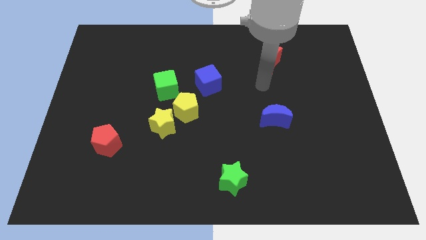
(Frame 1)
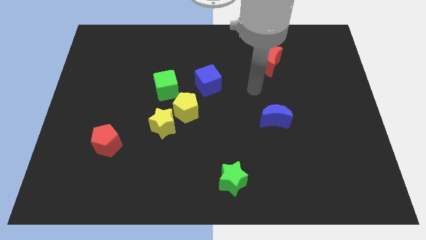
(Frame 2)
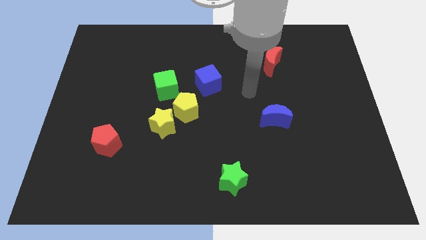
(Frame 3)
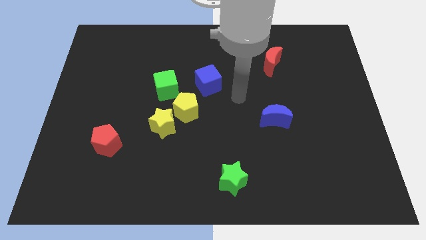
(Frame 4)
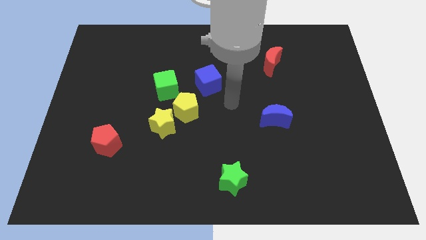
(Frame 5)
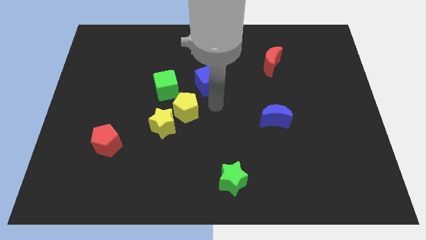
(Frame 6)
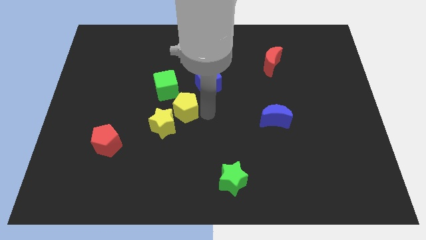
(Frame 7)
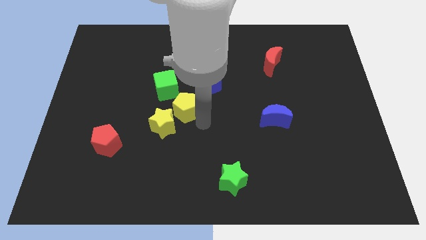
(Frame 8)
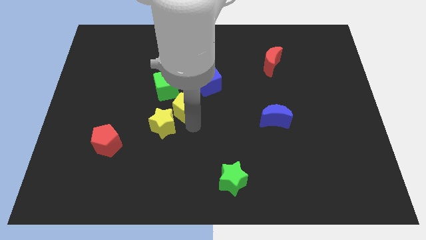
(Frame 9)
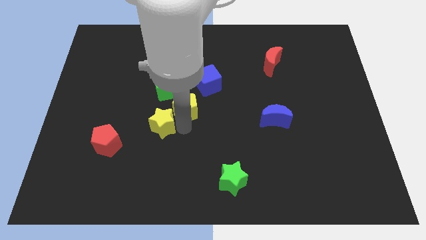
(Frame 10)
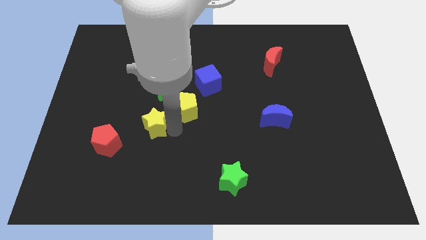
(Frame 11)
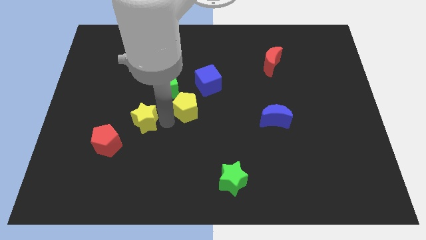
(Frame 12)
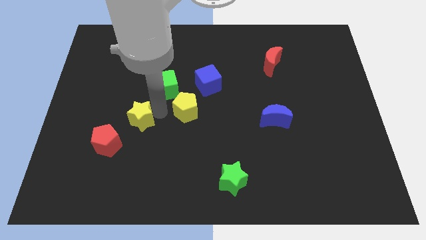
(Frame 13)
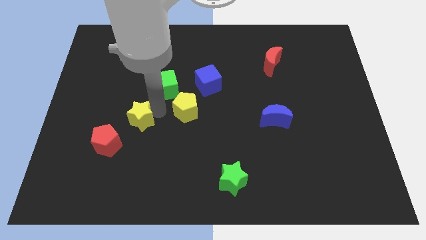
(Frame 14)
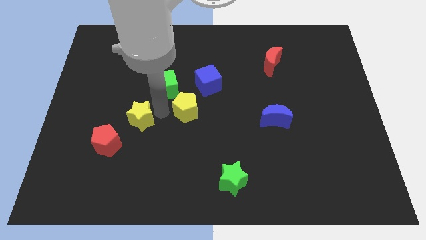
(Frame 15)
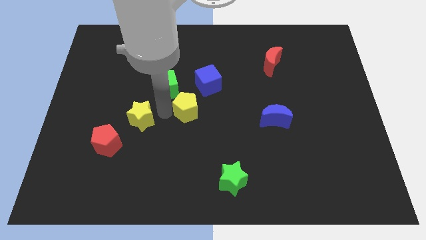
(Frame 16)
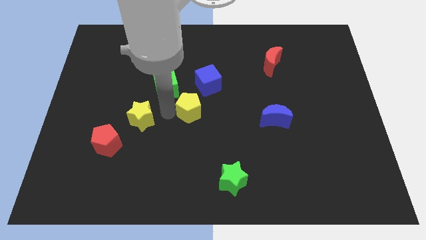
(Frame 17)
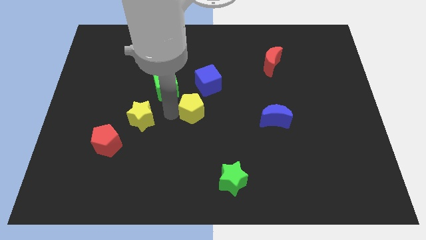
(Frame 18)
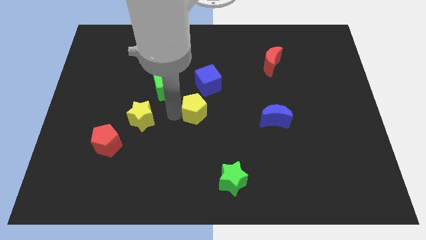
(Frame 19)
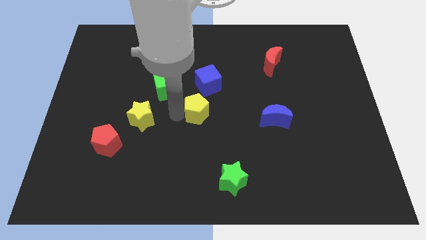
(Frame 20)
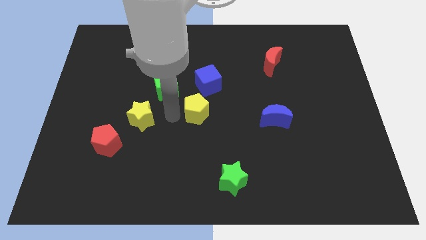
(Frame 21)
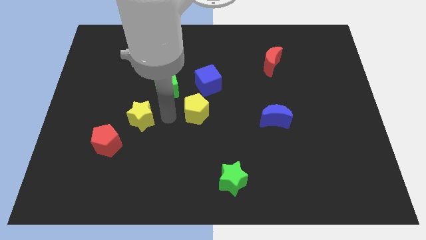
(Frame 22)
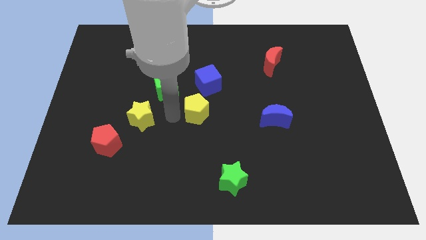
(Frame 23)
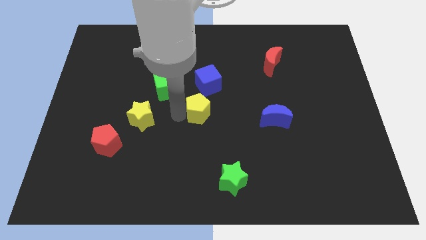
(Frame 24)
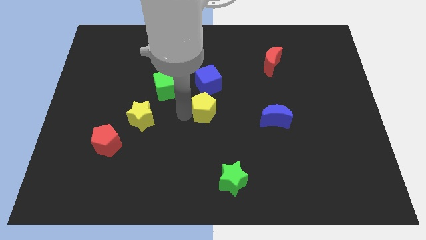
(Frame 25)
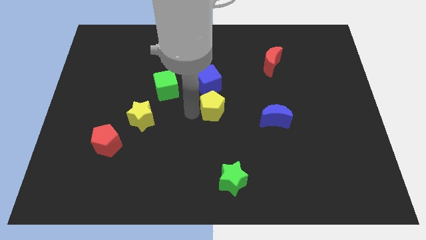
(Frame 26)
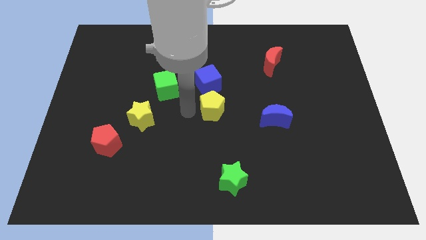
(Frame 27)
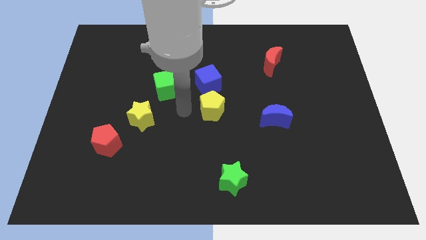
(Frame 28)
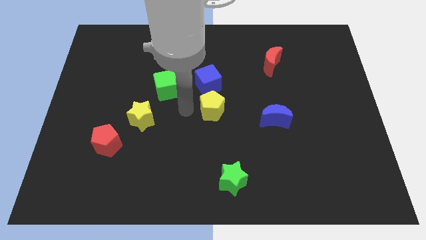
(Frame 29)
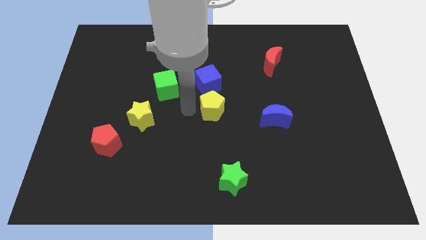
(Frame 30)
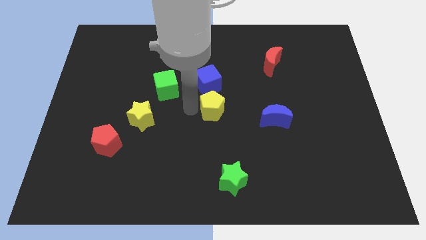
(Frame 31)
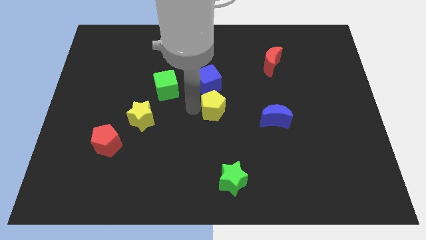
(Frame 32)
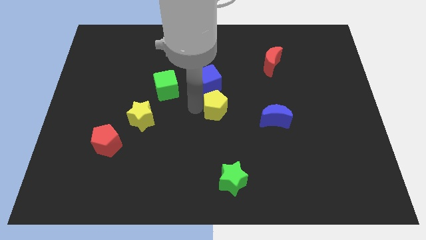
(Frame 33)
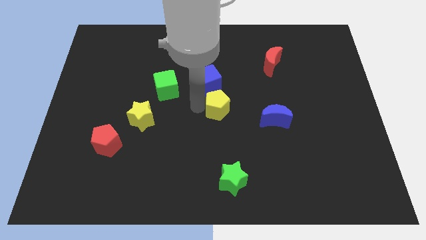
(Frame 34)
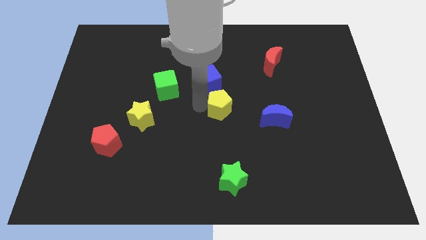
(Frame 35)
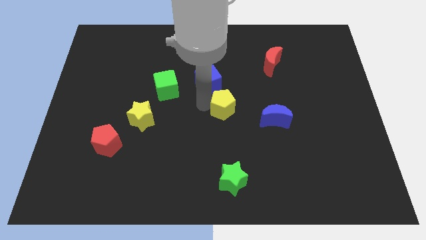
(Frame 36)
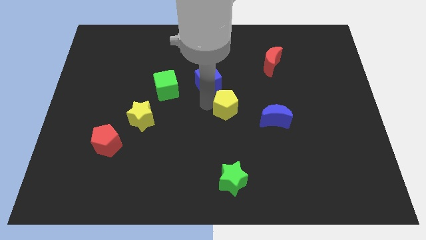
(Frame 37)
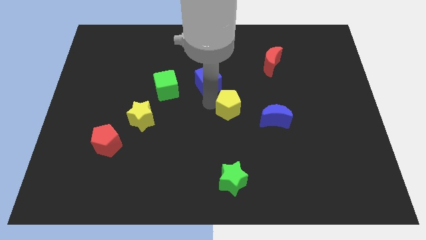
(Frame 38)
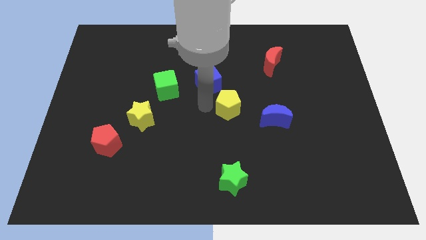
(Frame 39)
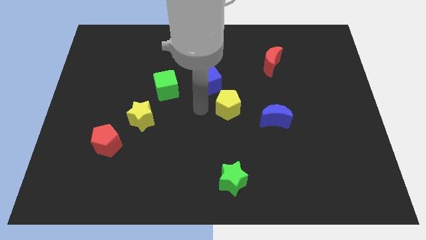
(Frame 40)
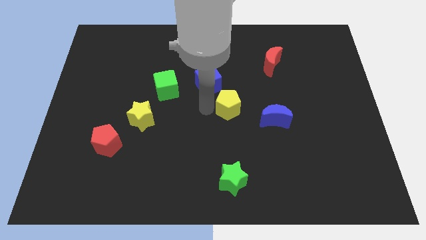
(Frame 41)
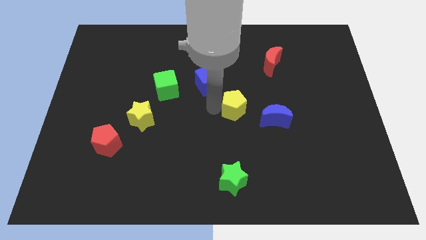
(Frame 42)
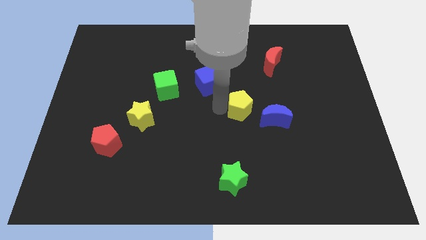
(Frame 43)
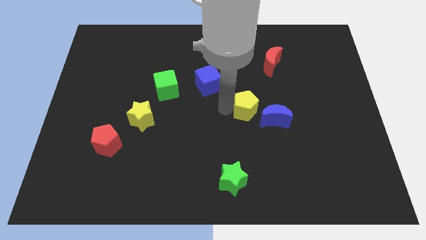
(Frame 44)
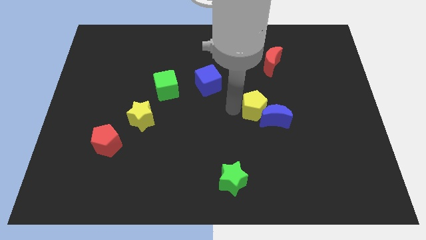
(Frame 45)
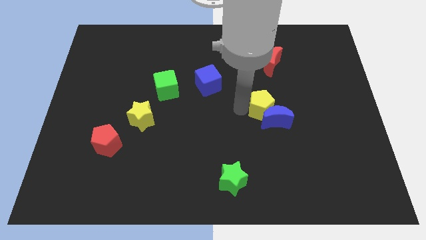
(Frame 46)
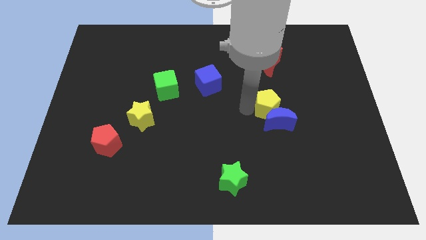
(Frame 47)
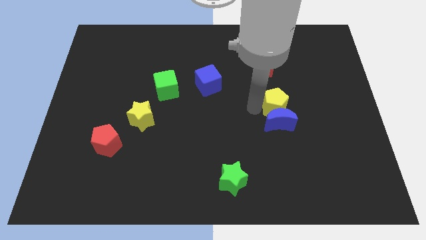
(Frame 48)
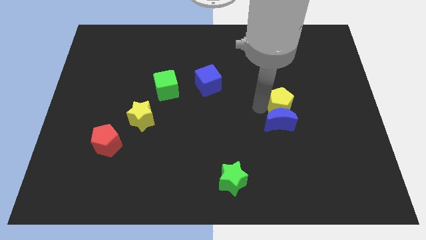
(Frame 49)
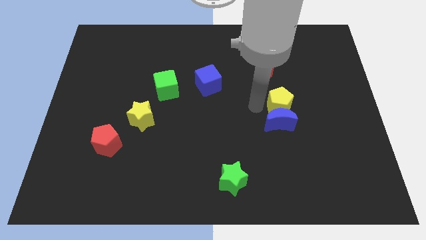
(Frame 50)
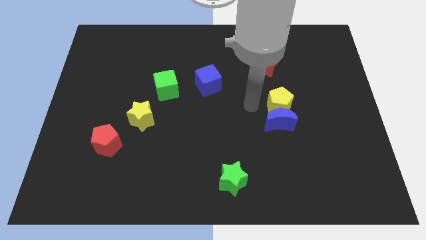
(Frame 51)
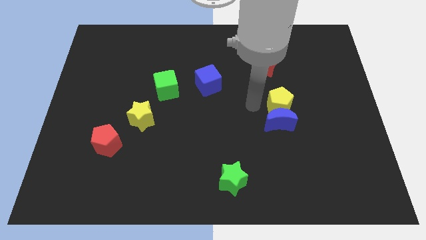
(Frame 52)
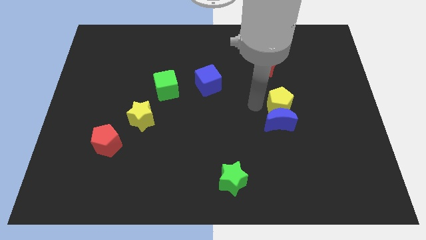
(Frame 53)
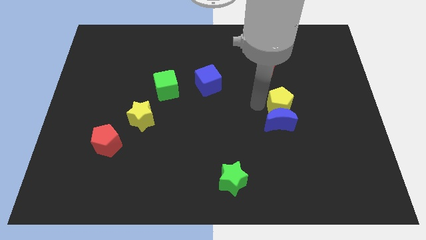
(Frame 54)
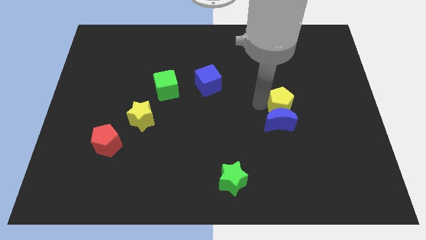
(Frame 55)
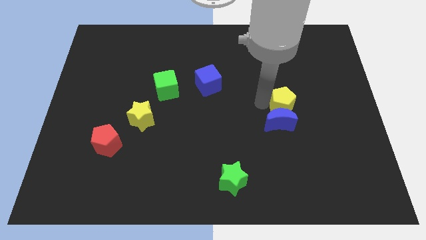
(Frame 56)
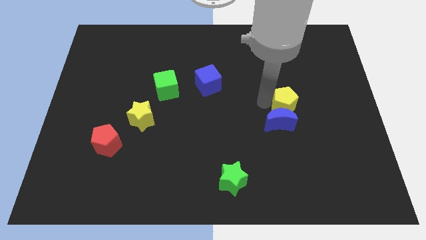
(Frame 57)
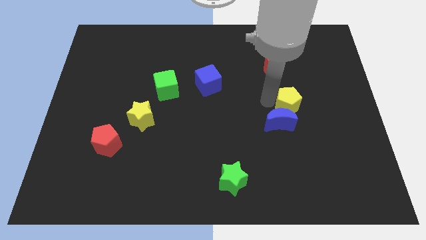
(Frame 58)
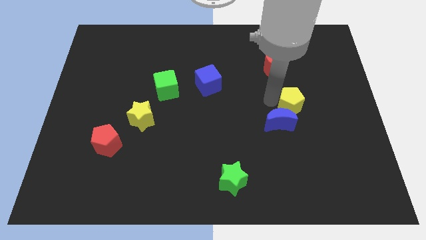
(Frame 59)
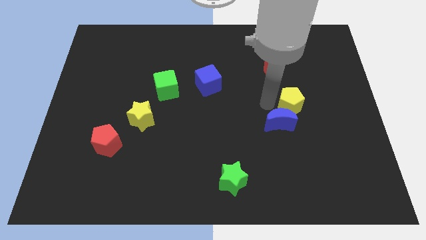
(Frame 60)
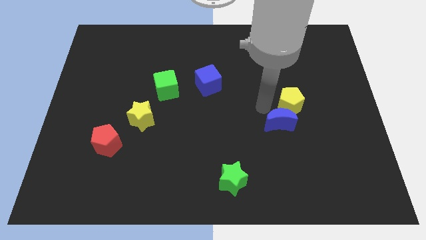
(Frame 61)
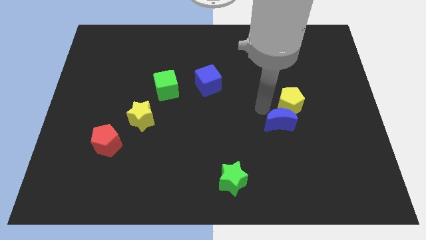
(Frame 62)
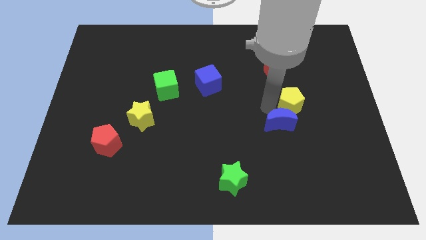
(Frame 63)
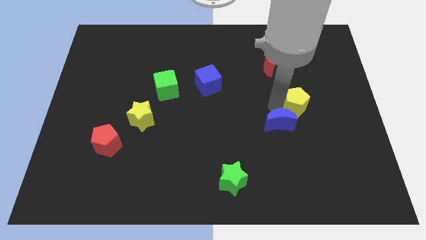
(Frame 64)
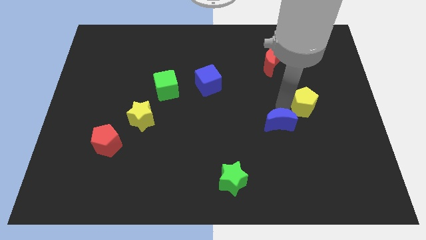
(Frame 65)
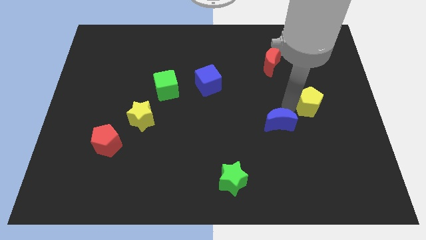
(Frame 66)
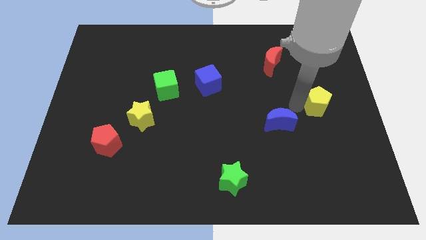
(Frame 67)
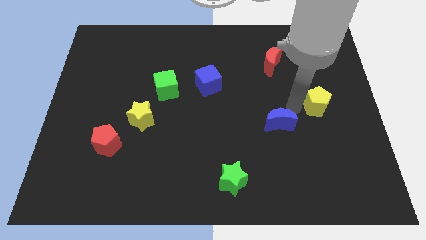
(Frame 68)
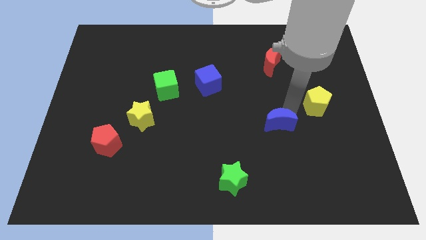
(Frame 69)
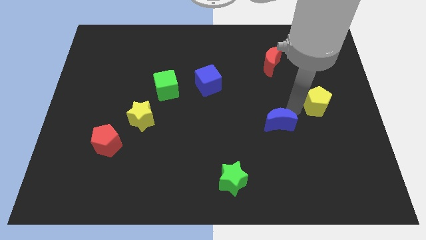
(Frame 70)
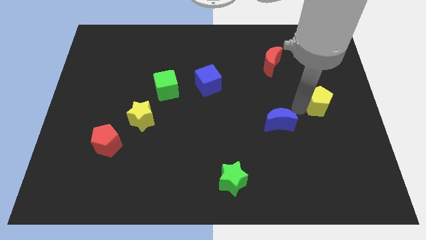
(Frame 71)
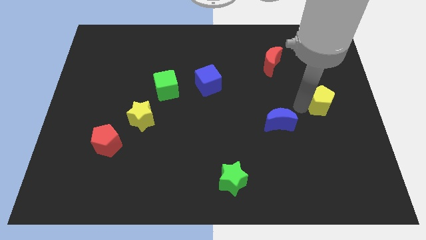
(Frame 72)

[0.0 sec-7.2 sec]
put the yellow pentagon to the right side
